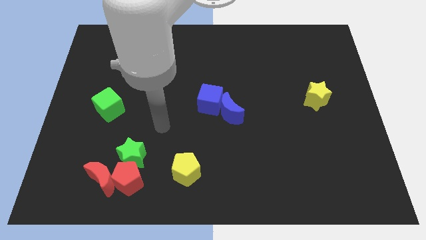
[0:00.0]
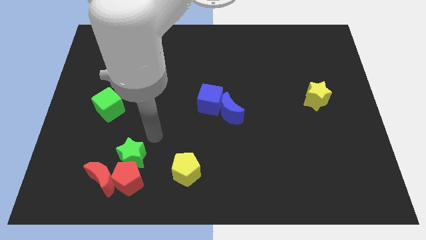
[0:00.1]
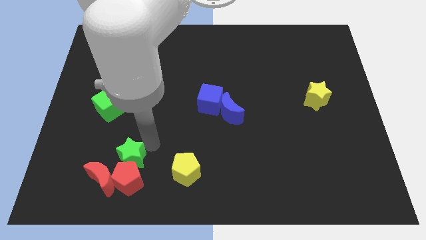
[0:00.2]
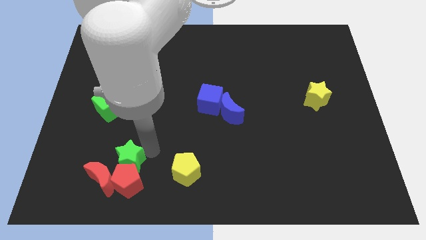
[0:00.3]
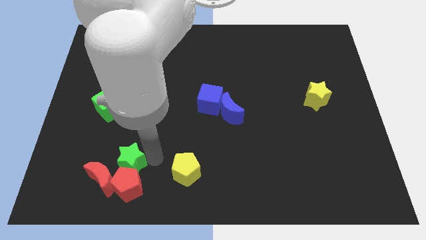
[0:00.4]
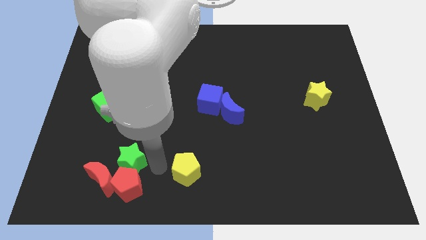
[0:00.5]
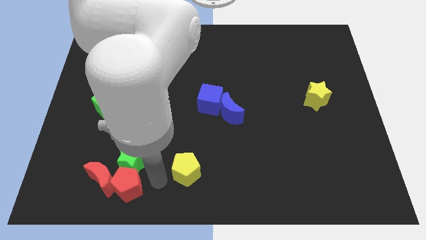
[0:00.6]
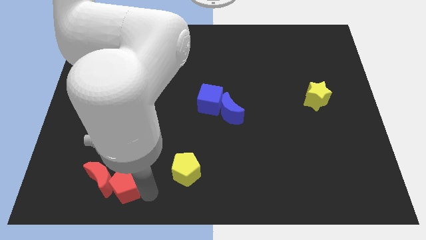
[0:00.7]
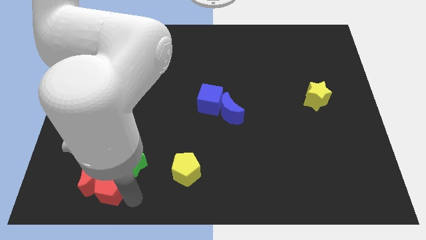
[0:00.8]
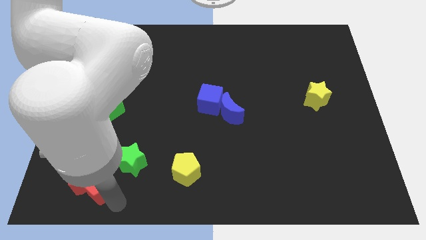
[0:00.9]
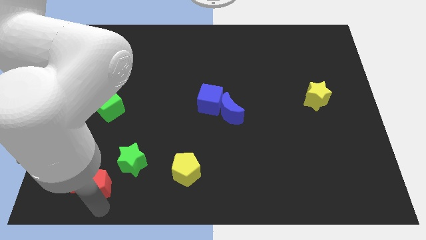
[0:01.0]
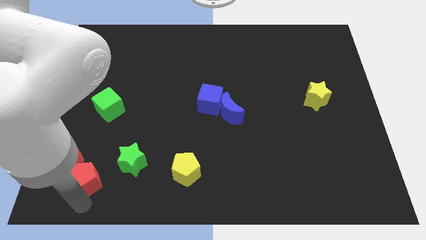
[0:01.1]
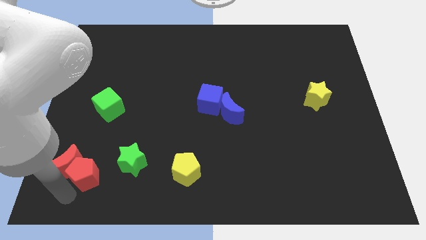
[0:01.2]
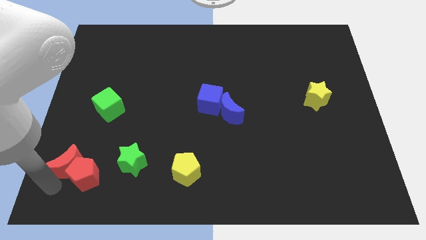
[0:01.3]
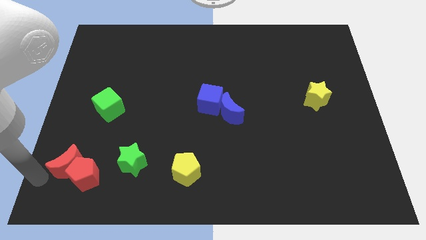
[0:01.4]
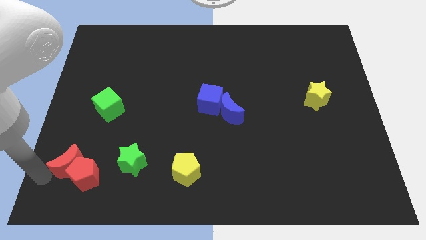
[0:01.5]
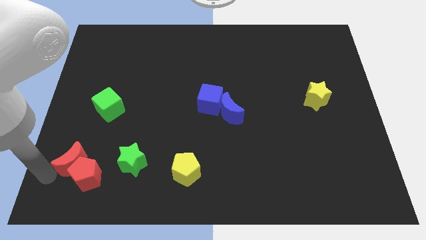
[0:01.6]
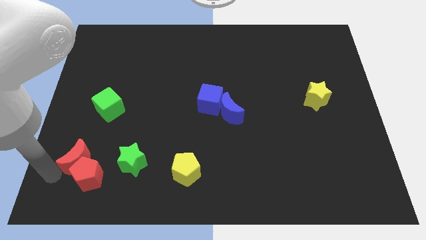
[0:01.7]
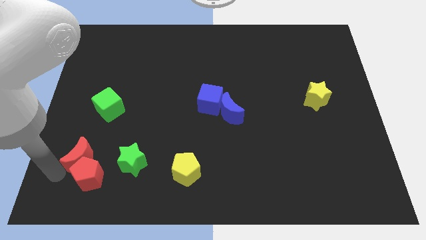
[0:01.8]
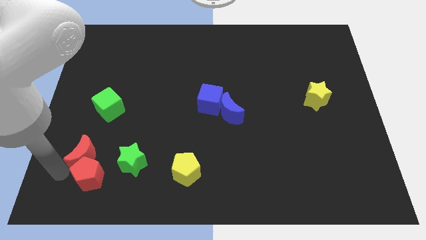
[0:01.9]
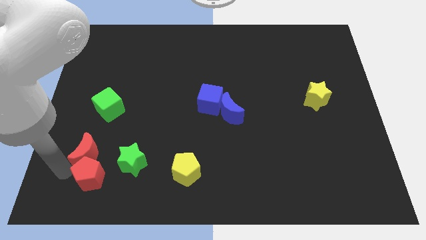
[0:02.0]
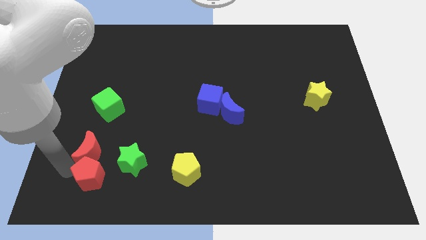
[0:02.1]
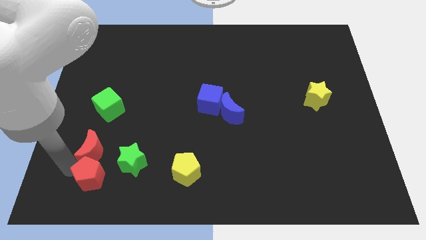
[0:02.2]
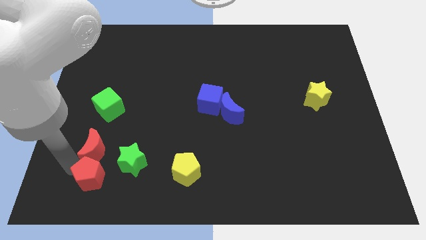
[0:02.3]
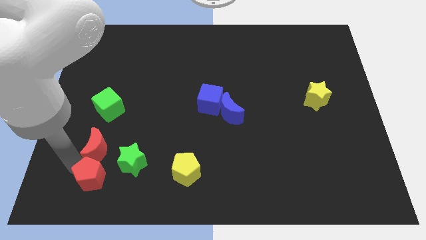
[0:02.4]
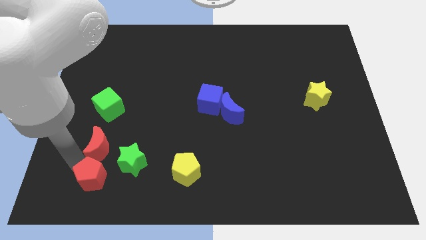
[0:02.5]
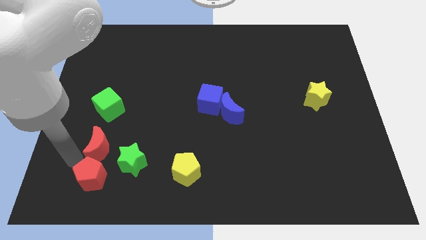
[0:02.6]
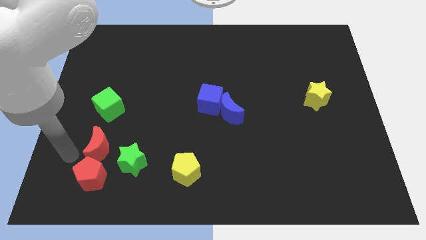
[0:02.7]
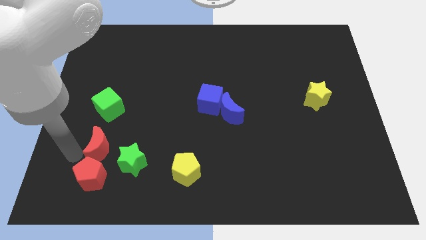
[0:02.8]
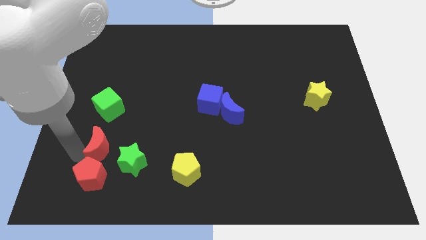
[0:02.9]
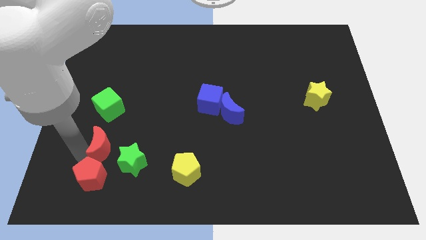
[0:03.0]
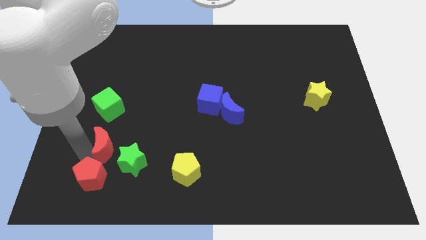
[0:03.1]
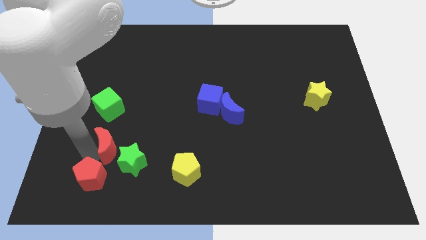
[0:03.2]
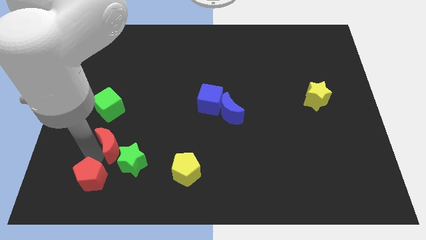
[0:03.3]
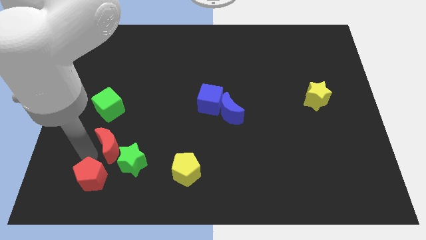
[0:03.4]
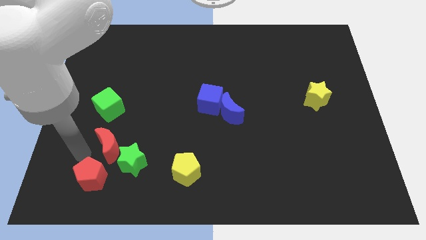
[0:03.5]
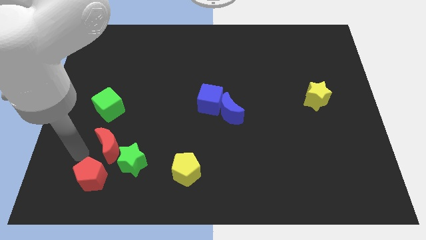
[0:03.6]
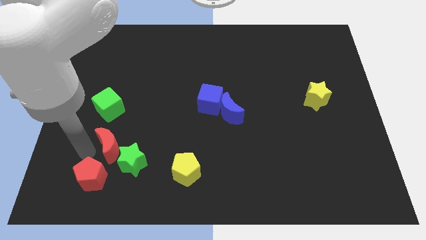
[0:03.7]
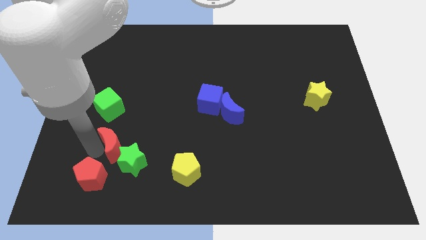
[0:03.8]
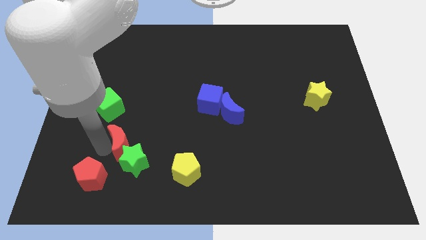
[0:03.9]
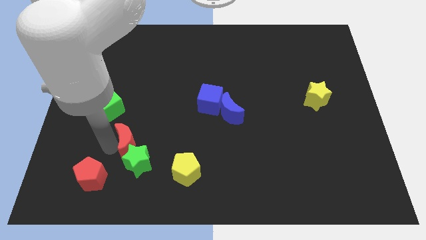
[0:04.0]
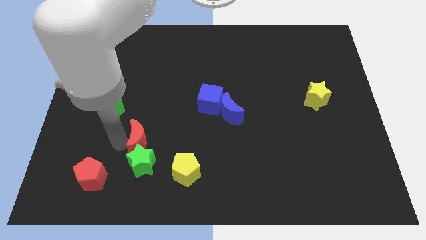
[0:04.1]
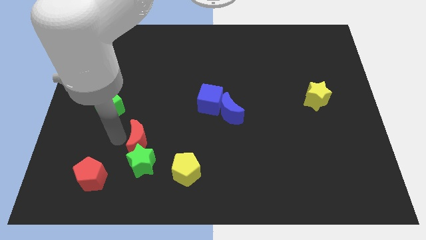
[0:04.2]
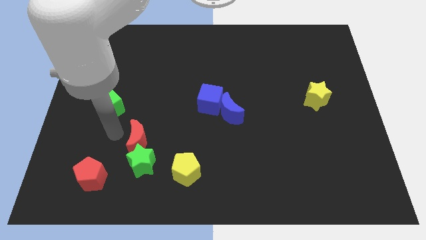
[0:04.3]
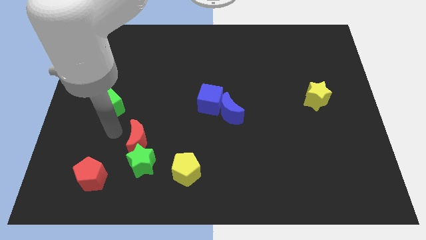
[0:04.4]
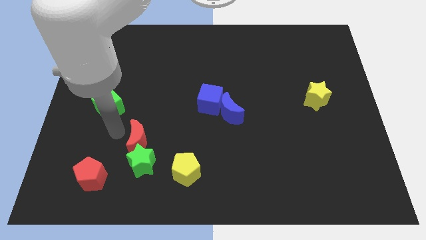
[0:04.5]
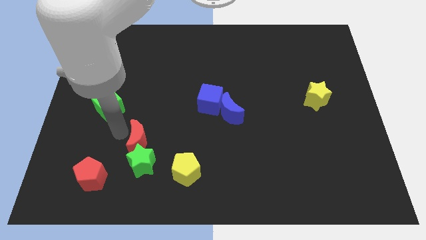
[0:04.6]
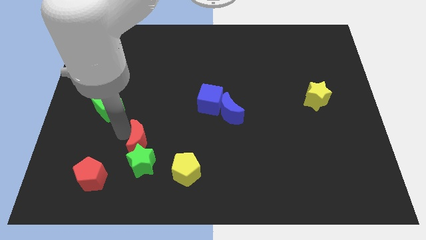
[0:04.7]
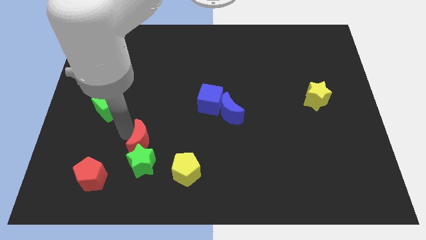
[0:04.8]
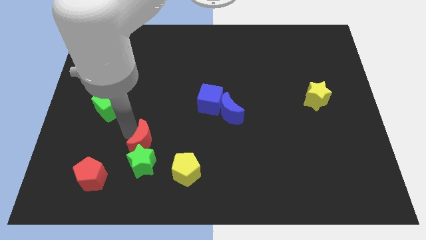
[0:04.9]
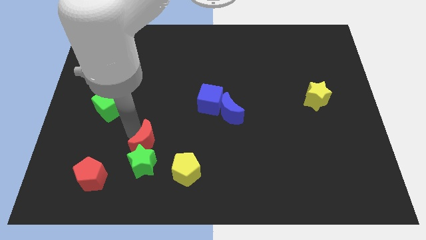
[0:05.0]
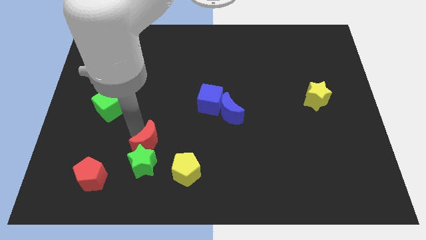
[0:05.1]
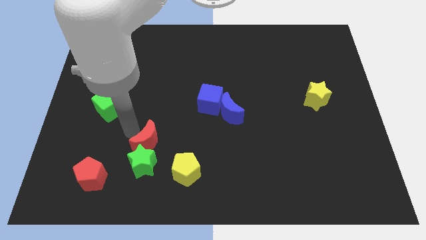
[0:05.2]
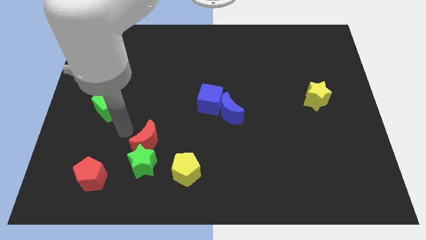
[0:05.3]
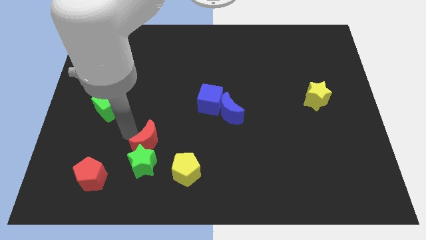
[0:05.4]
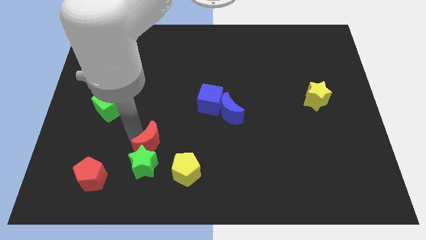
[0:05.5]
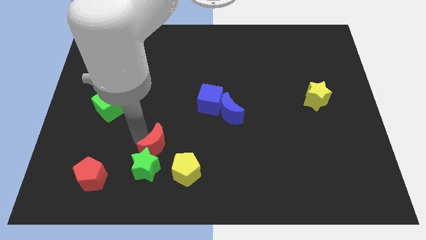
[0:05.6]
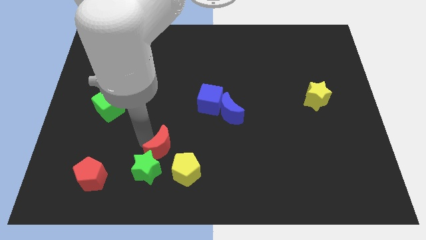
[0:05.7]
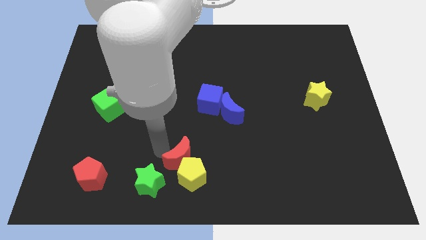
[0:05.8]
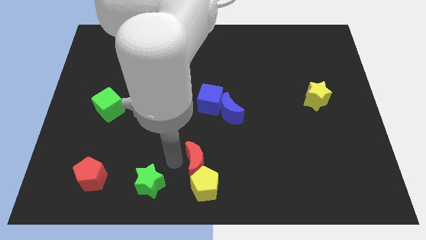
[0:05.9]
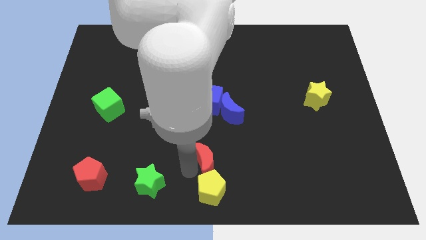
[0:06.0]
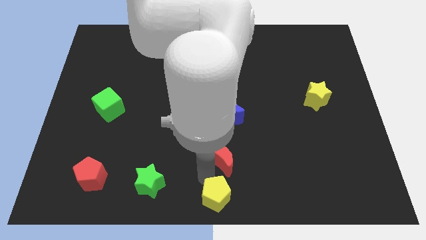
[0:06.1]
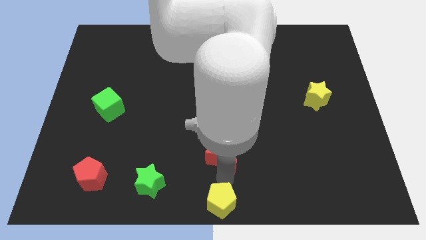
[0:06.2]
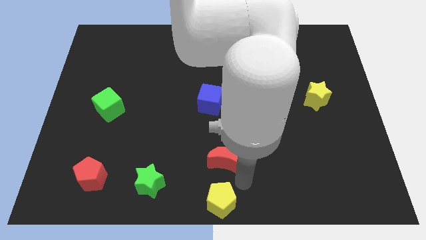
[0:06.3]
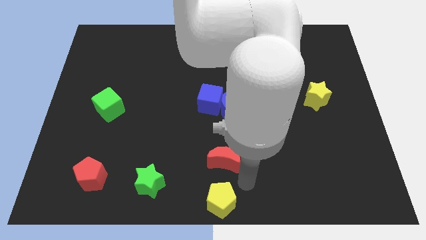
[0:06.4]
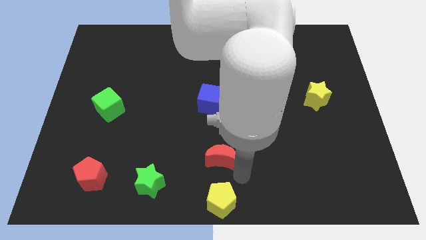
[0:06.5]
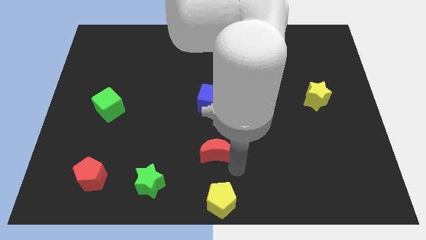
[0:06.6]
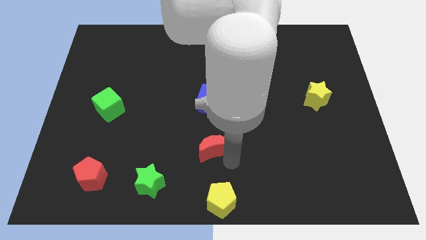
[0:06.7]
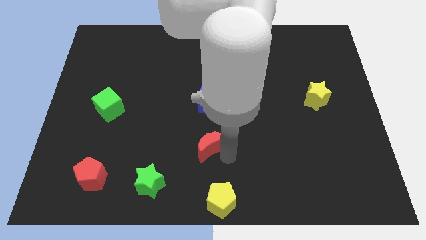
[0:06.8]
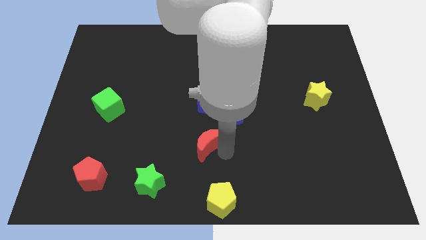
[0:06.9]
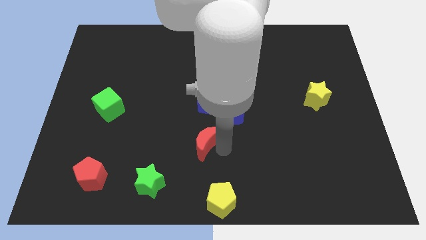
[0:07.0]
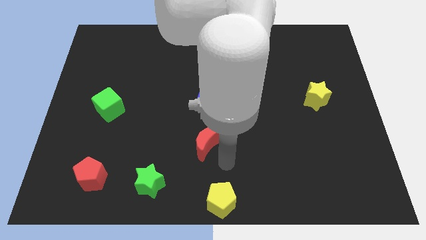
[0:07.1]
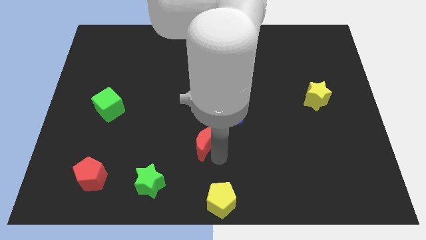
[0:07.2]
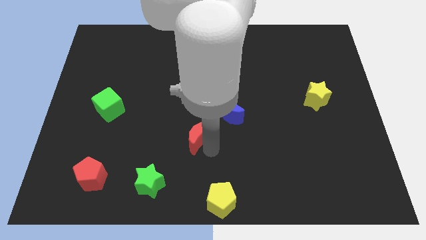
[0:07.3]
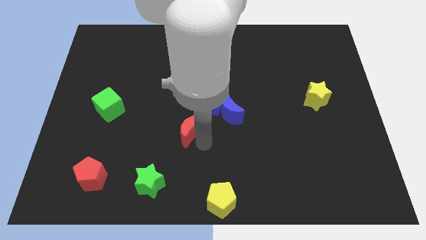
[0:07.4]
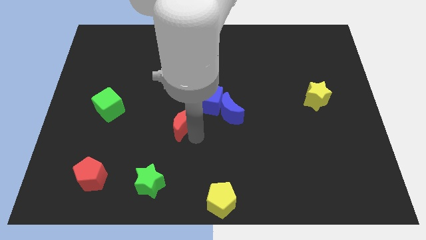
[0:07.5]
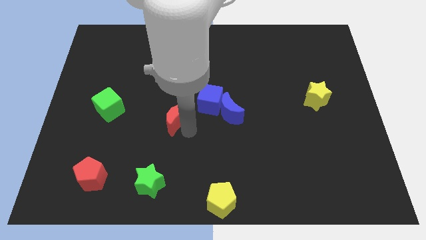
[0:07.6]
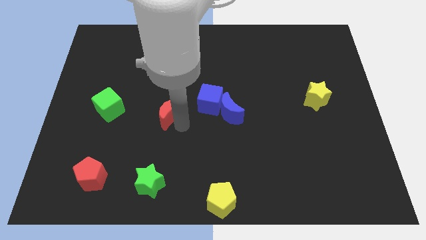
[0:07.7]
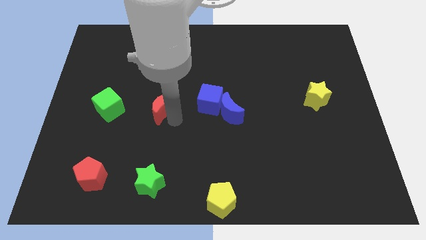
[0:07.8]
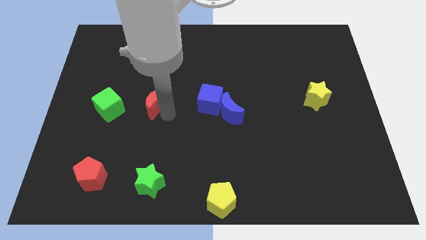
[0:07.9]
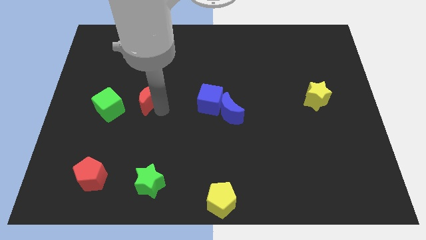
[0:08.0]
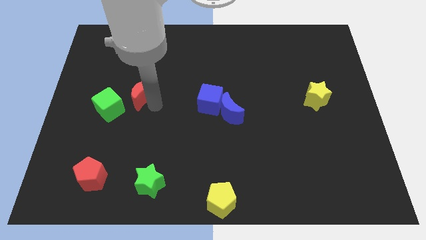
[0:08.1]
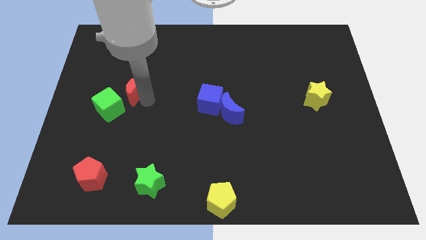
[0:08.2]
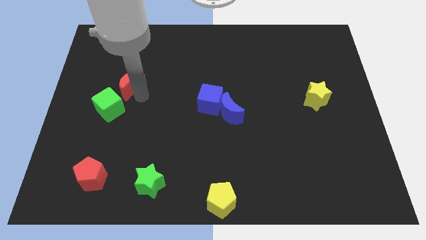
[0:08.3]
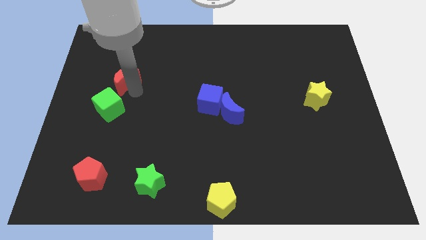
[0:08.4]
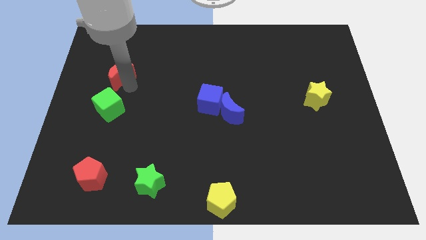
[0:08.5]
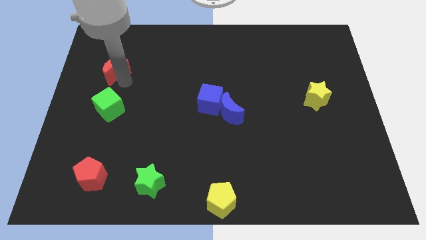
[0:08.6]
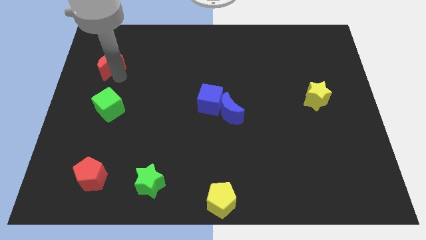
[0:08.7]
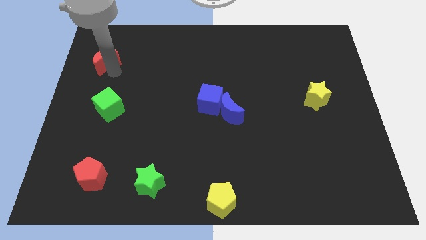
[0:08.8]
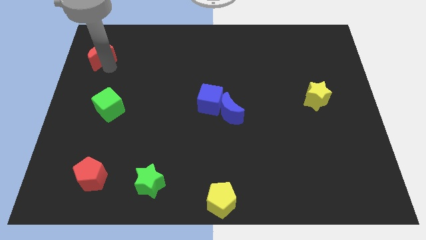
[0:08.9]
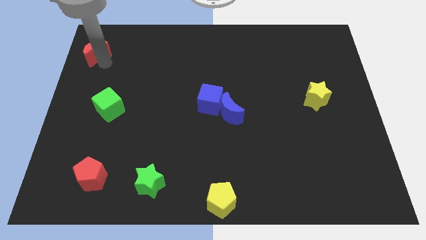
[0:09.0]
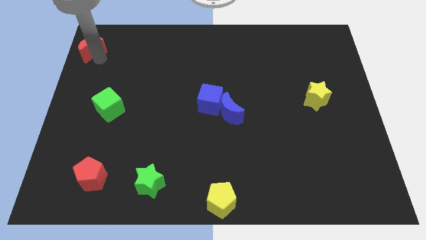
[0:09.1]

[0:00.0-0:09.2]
push the red moon to the top left corner
